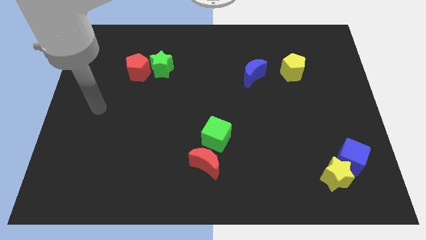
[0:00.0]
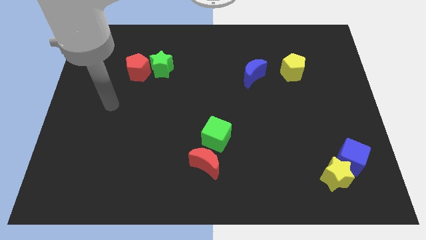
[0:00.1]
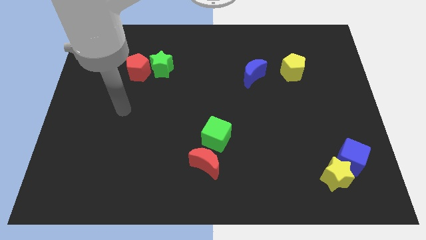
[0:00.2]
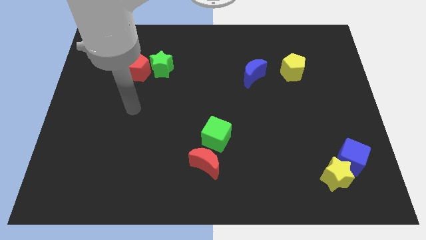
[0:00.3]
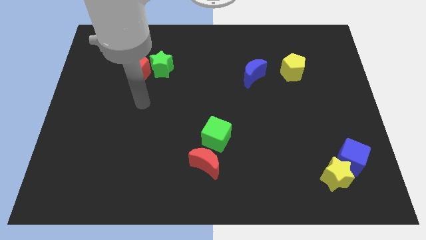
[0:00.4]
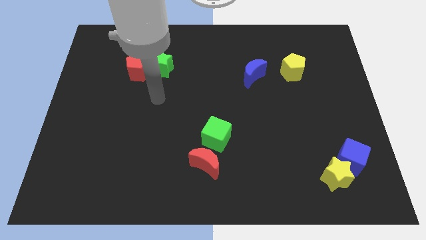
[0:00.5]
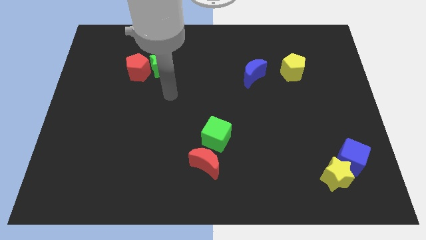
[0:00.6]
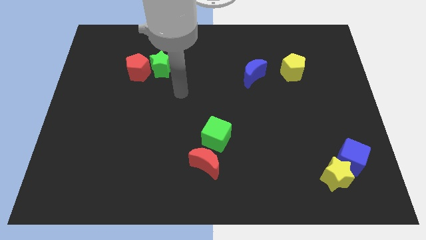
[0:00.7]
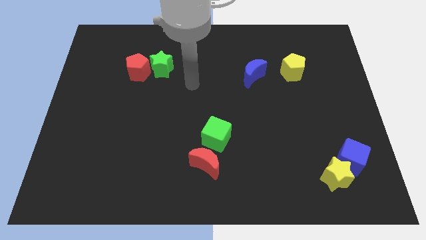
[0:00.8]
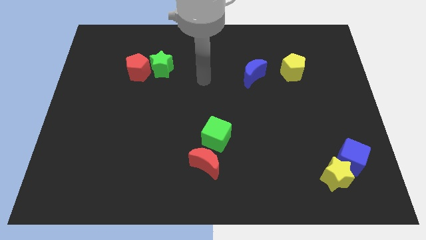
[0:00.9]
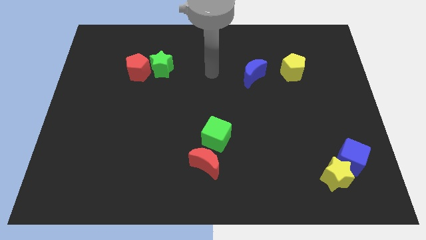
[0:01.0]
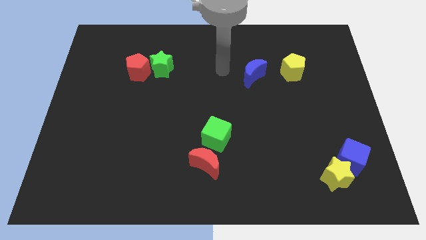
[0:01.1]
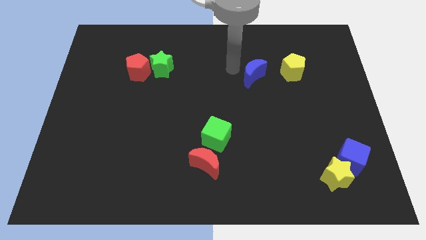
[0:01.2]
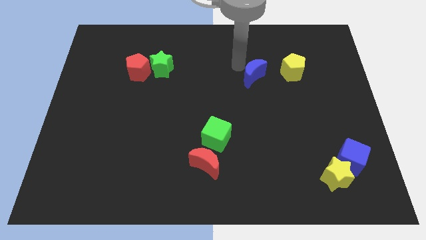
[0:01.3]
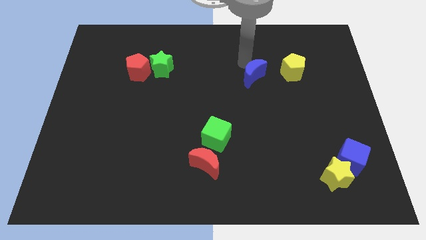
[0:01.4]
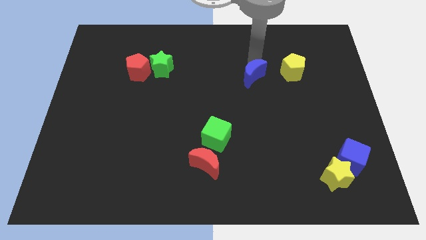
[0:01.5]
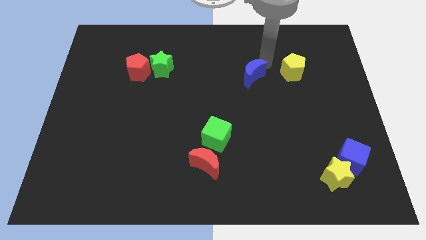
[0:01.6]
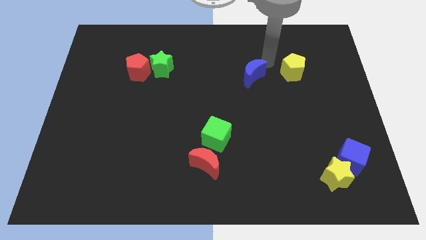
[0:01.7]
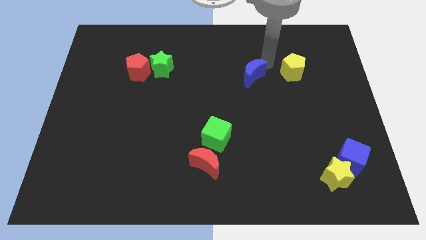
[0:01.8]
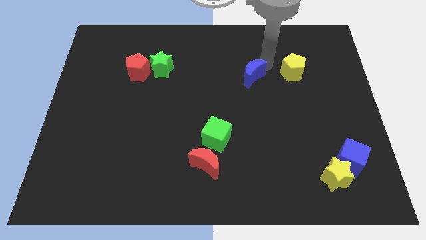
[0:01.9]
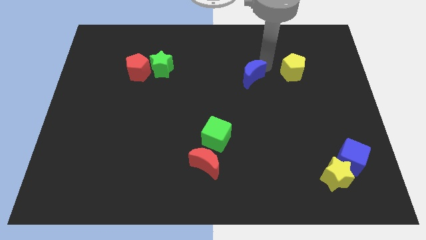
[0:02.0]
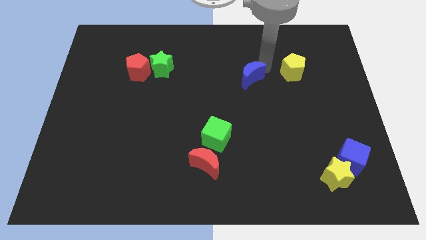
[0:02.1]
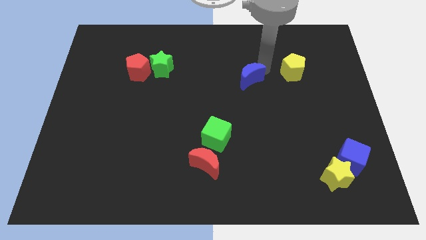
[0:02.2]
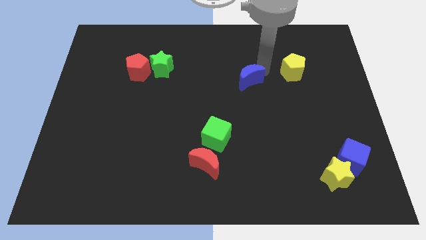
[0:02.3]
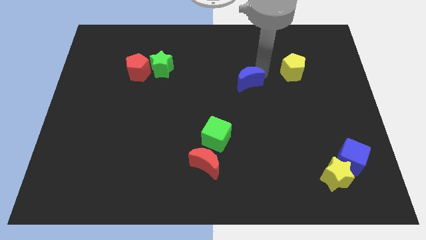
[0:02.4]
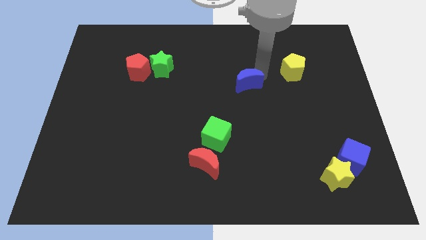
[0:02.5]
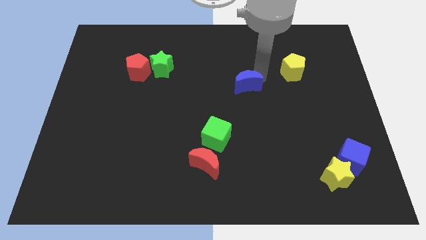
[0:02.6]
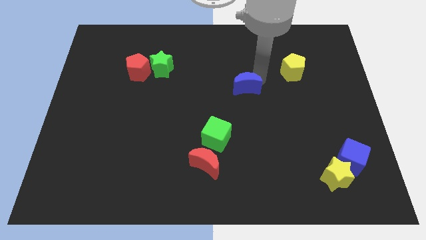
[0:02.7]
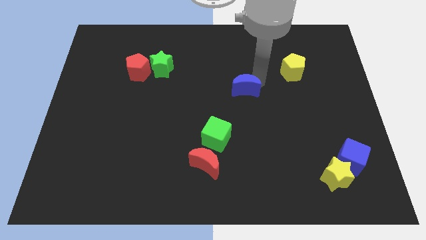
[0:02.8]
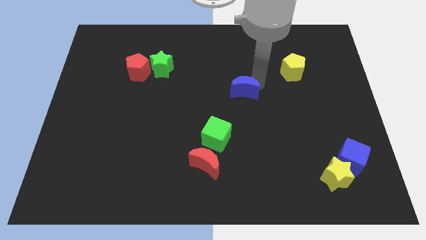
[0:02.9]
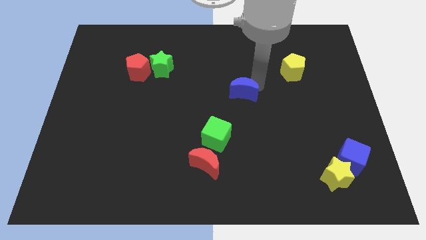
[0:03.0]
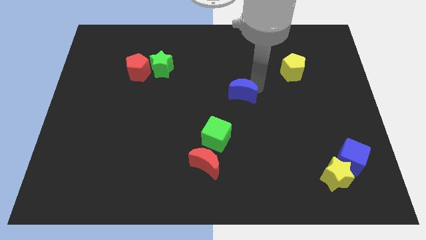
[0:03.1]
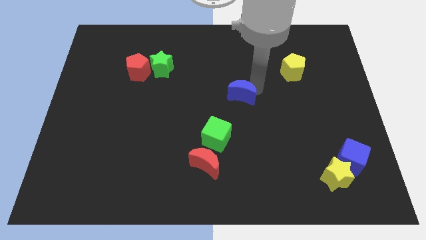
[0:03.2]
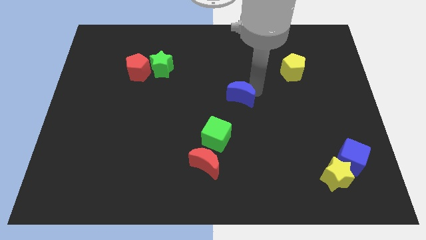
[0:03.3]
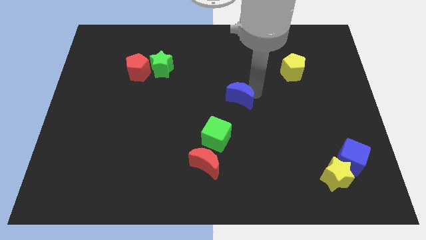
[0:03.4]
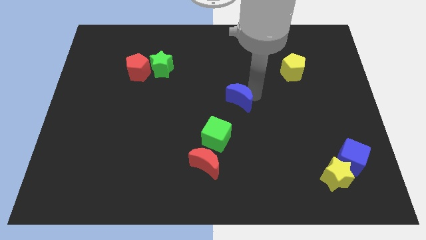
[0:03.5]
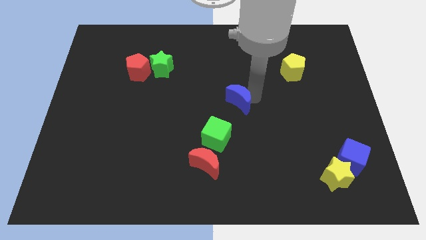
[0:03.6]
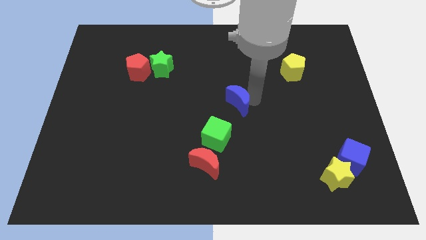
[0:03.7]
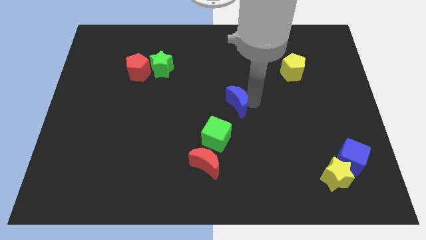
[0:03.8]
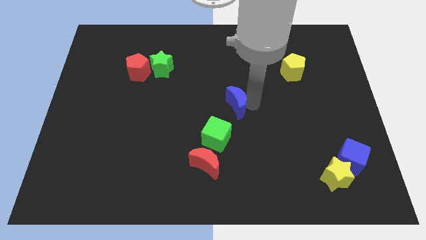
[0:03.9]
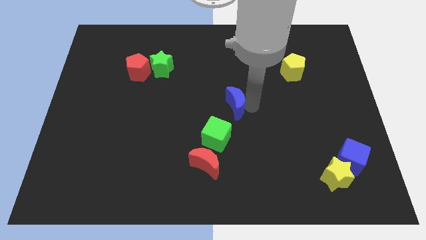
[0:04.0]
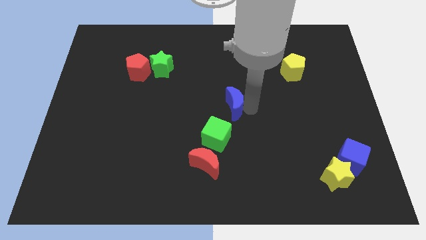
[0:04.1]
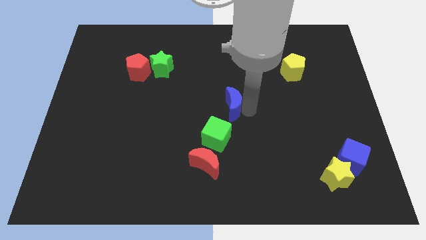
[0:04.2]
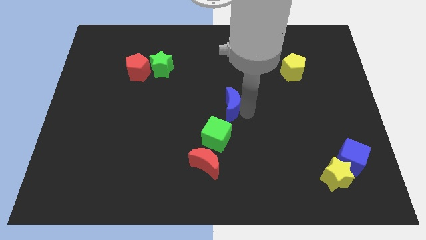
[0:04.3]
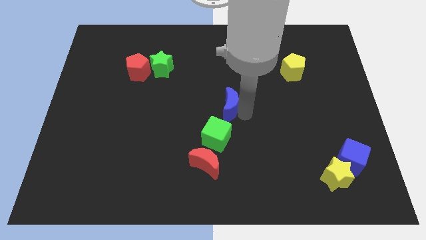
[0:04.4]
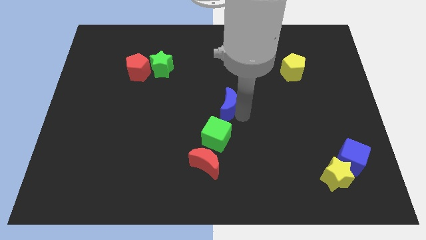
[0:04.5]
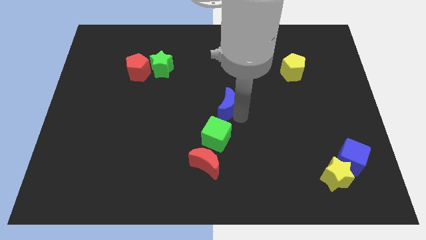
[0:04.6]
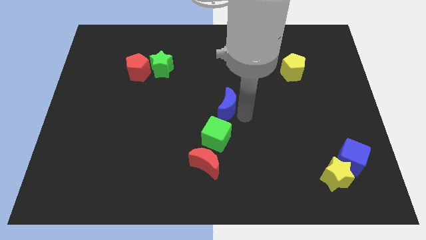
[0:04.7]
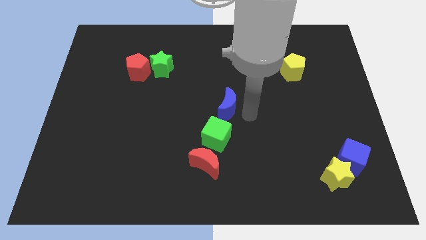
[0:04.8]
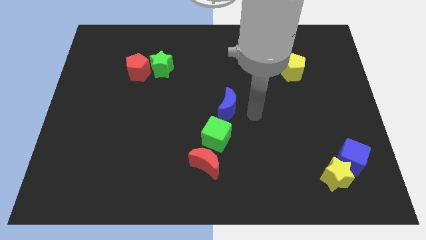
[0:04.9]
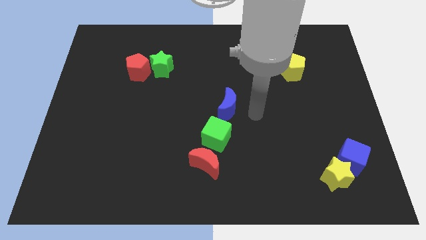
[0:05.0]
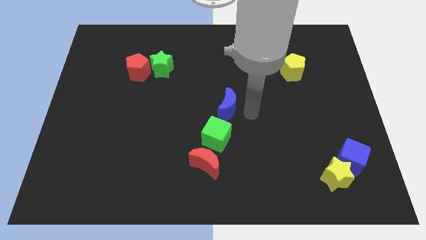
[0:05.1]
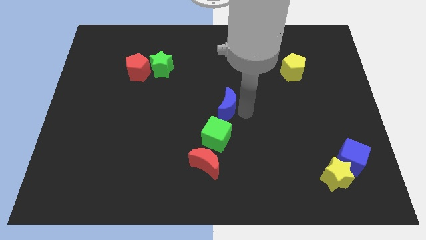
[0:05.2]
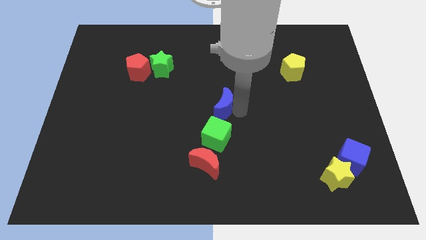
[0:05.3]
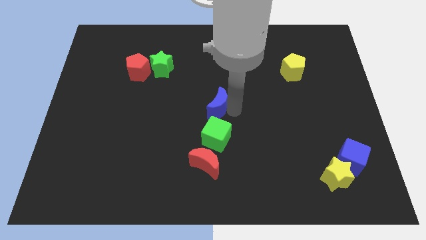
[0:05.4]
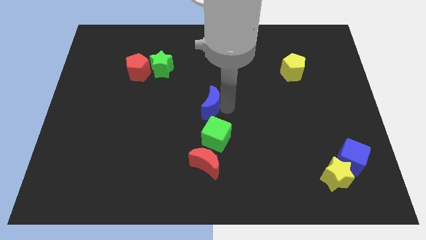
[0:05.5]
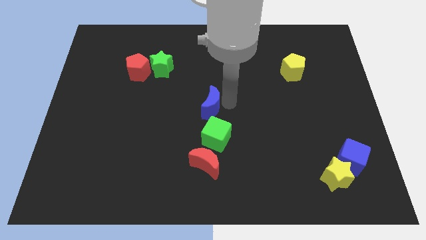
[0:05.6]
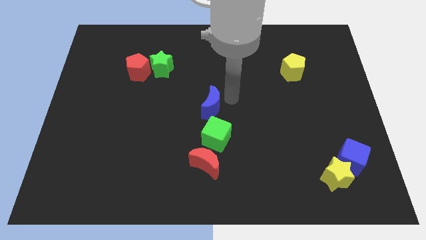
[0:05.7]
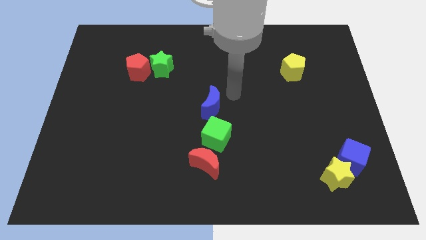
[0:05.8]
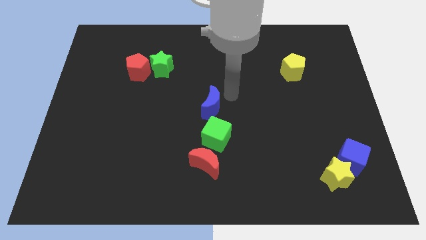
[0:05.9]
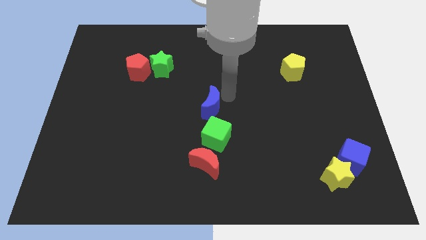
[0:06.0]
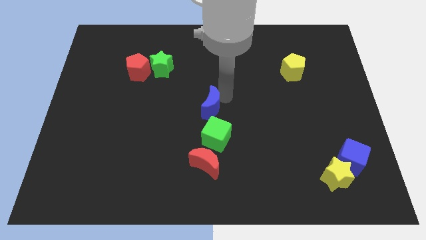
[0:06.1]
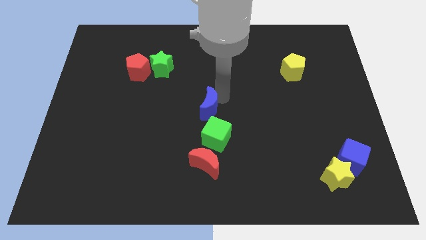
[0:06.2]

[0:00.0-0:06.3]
slide the blue moon diagonally up and to the left of the green cube

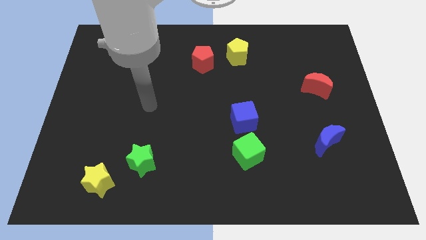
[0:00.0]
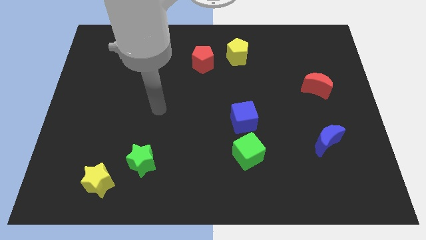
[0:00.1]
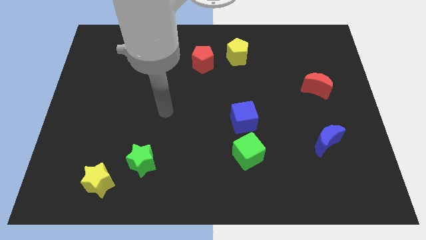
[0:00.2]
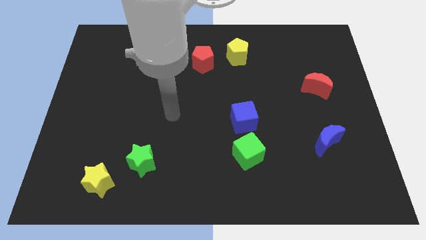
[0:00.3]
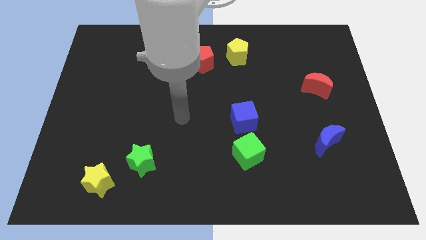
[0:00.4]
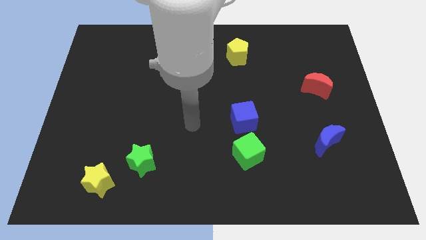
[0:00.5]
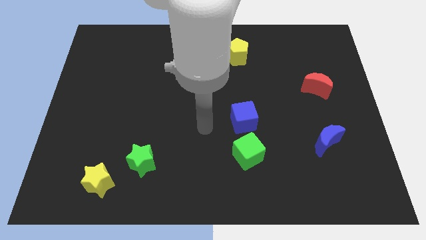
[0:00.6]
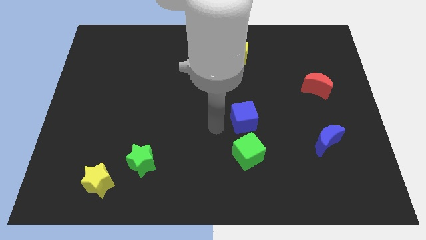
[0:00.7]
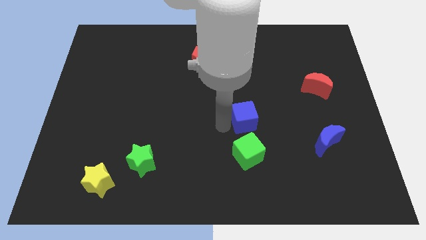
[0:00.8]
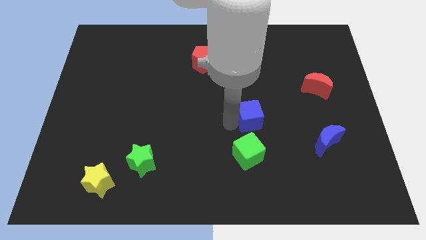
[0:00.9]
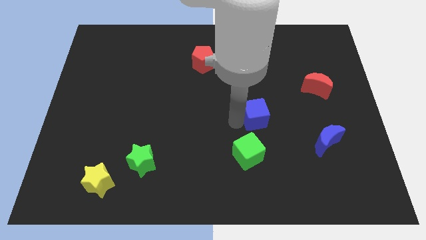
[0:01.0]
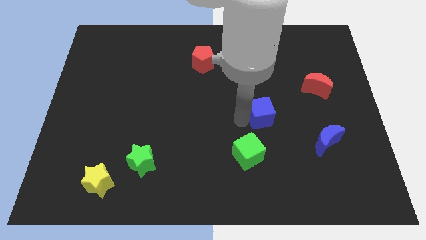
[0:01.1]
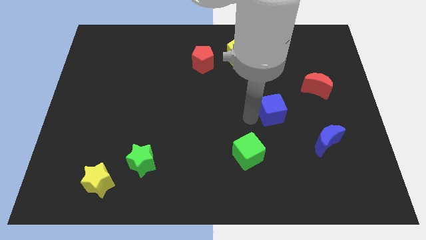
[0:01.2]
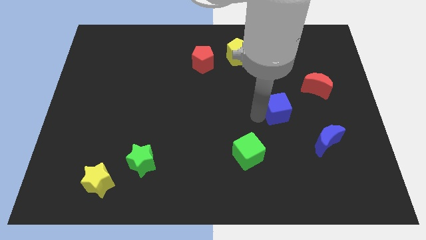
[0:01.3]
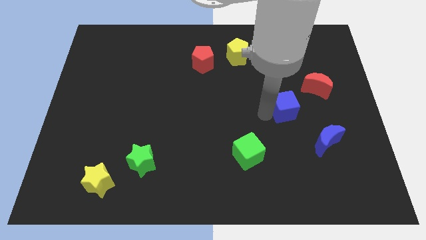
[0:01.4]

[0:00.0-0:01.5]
put the blue cube to the bottom left of the red moon

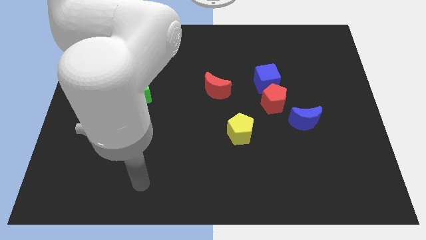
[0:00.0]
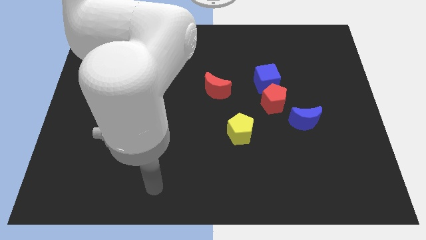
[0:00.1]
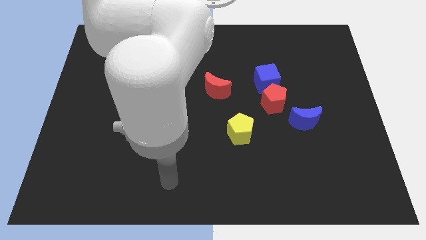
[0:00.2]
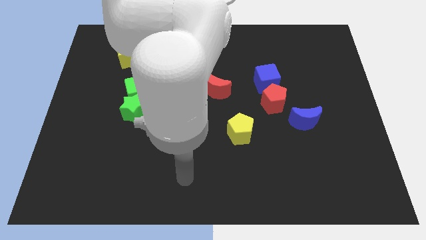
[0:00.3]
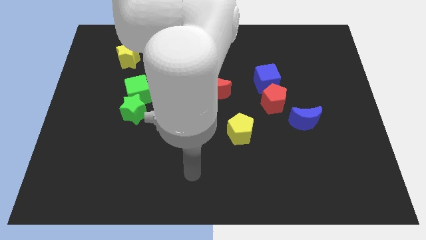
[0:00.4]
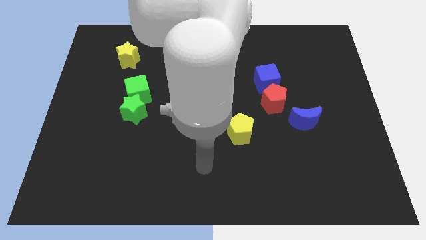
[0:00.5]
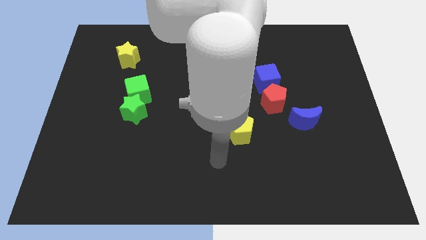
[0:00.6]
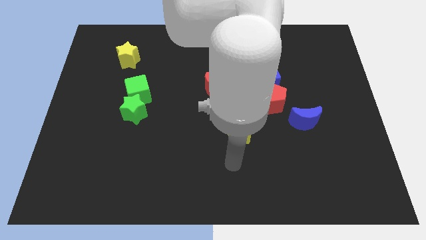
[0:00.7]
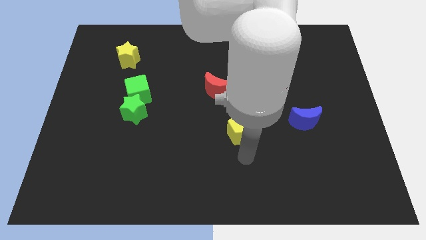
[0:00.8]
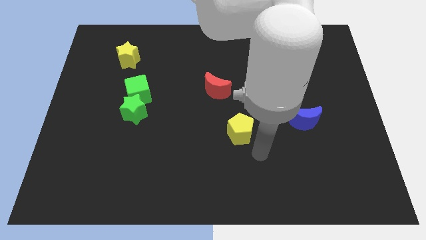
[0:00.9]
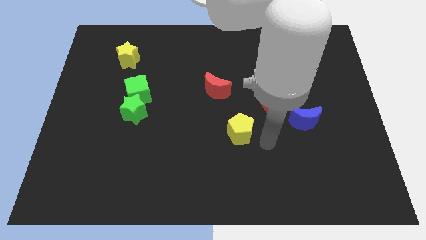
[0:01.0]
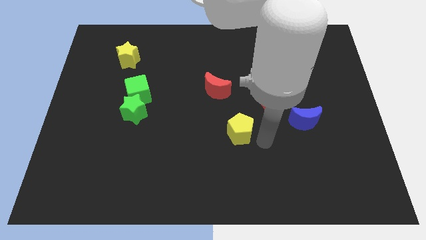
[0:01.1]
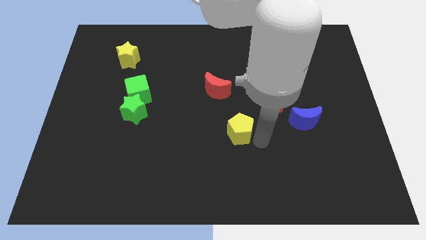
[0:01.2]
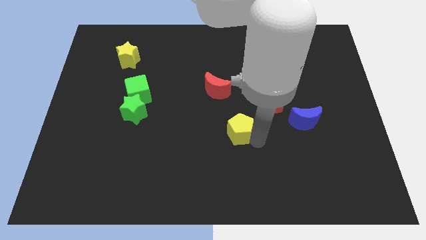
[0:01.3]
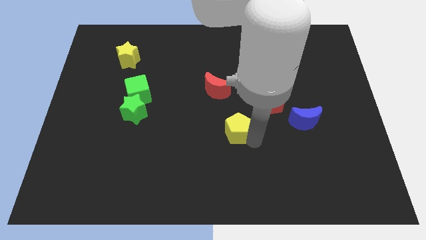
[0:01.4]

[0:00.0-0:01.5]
push the yellow pentagon to the bottom side of the red moon
